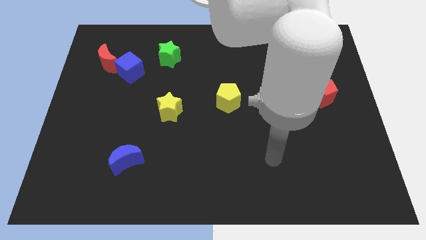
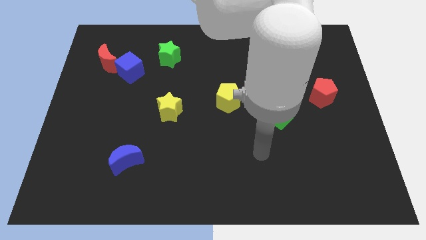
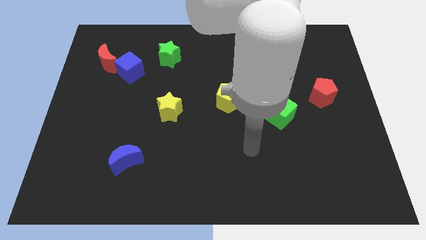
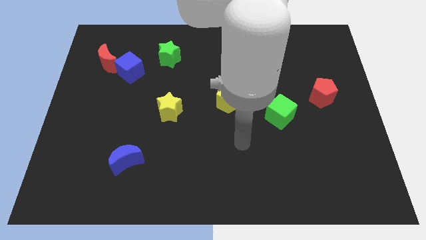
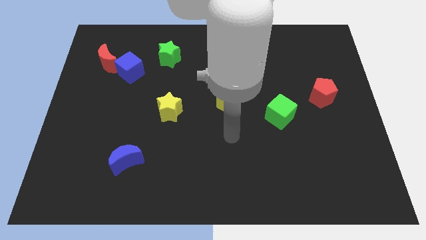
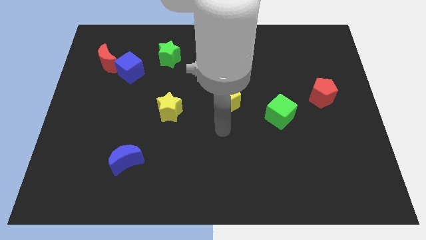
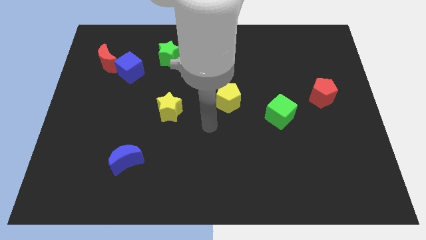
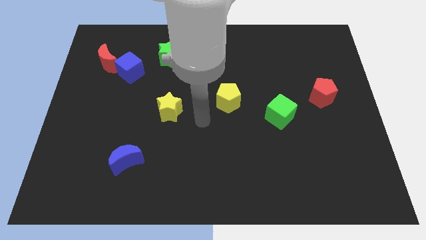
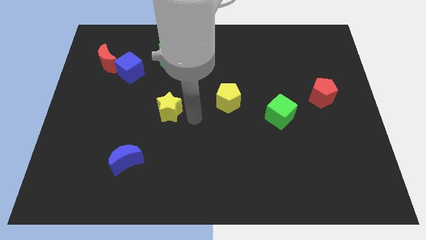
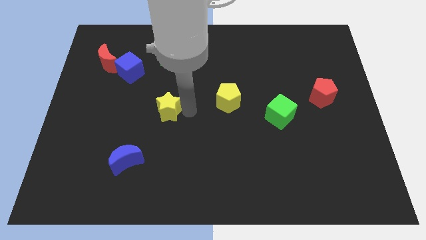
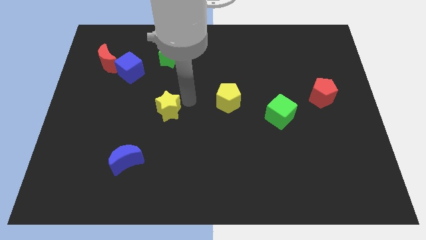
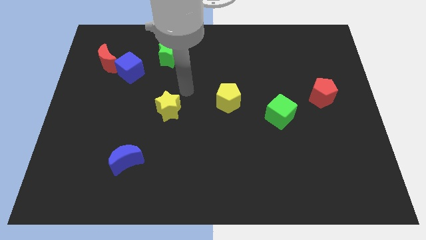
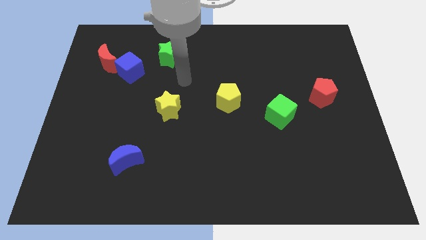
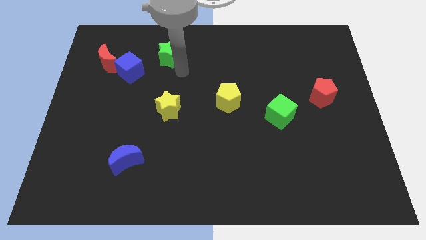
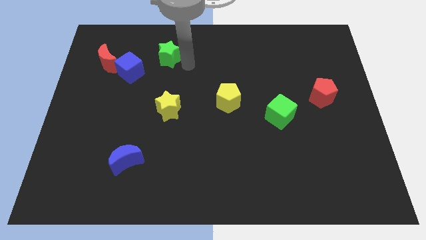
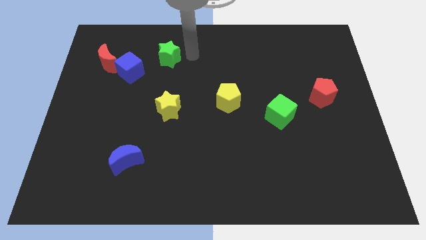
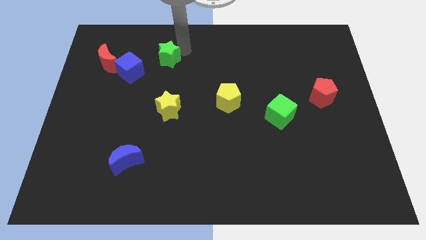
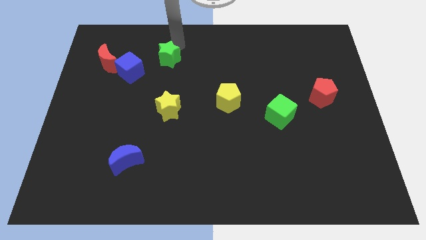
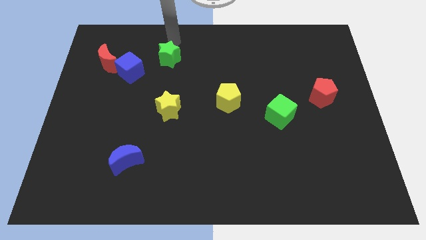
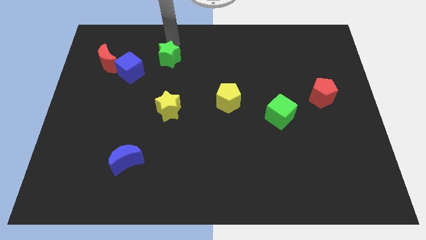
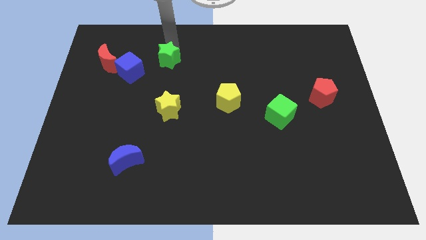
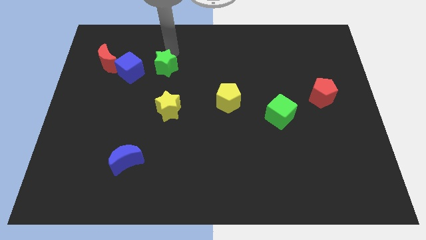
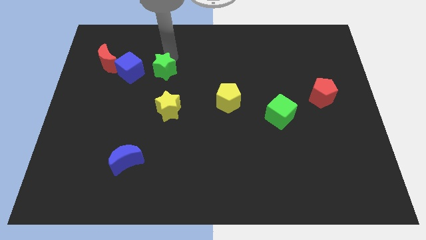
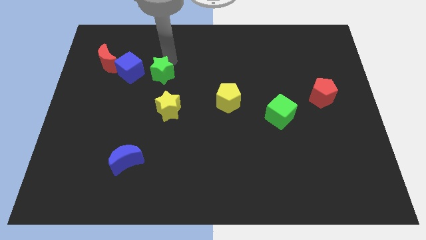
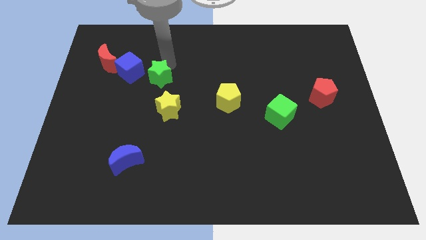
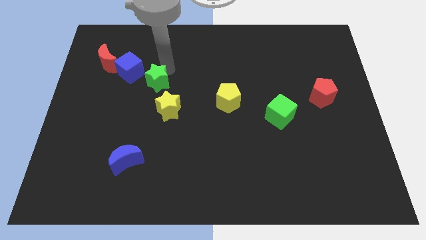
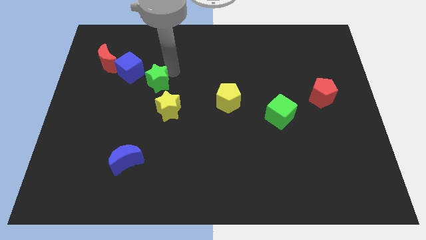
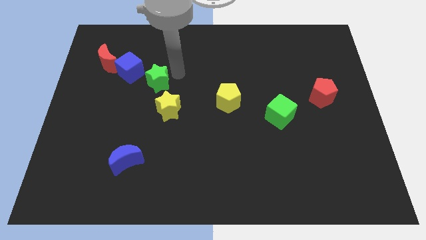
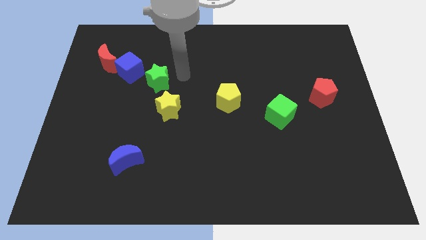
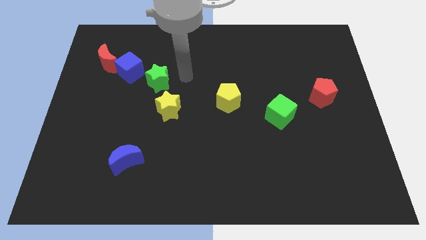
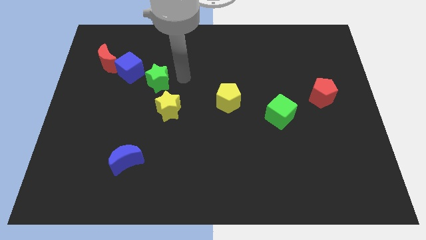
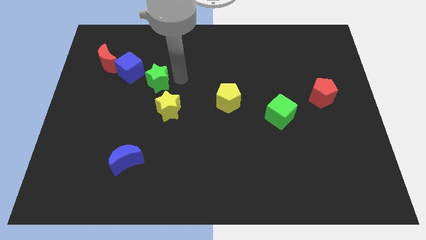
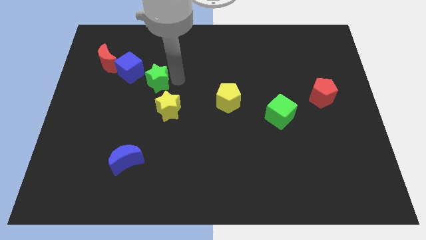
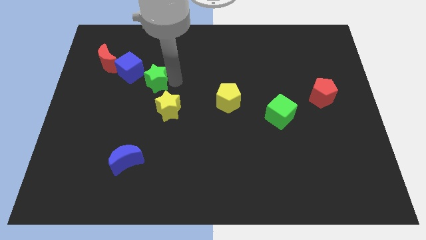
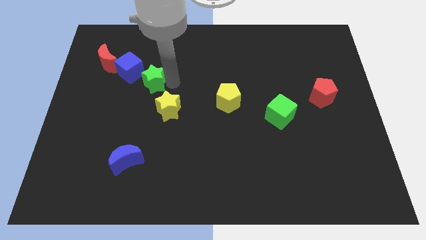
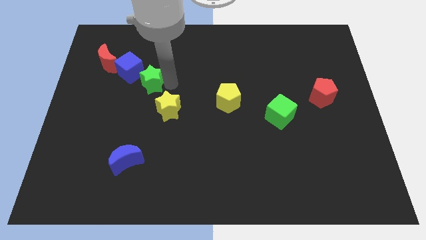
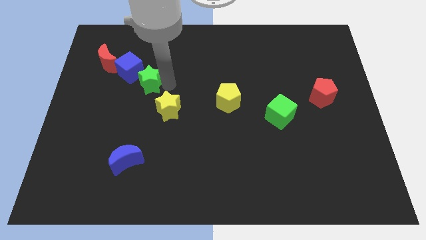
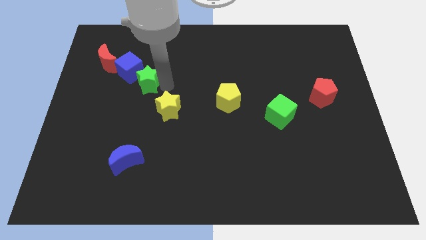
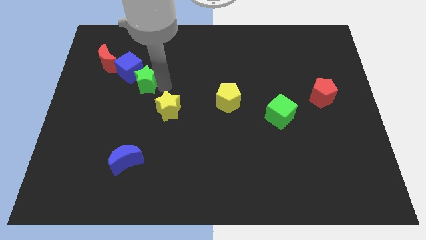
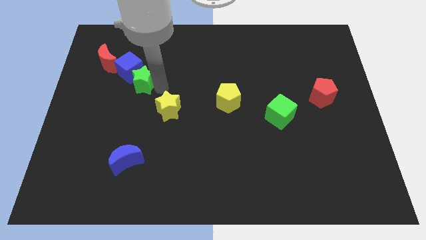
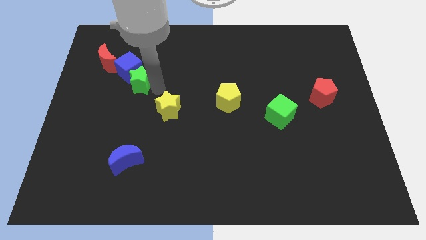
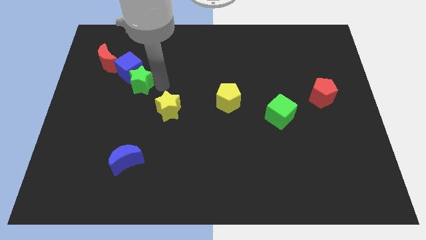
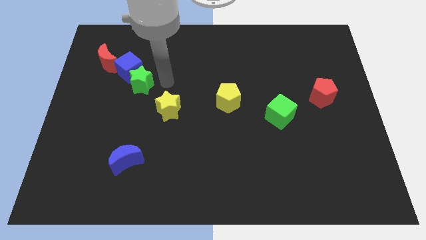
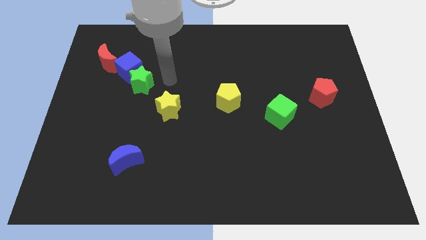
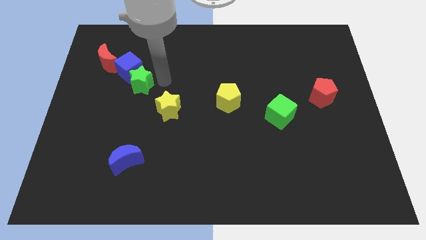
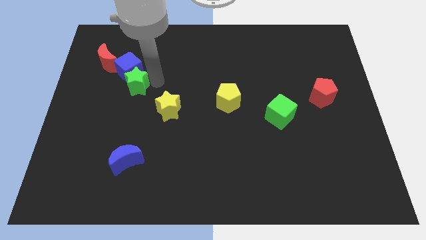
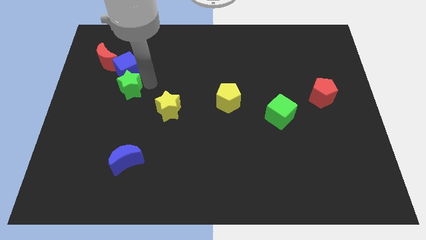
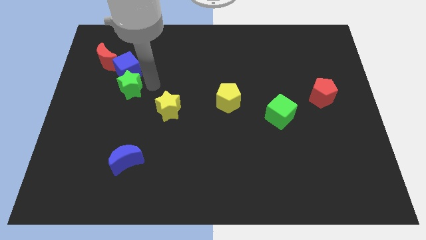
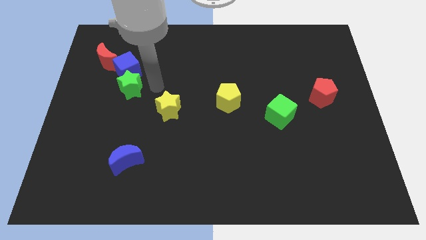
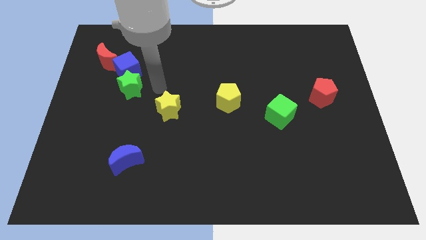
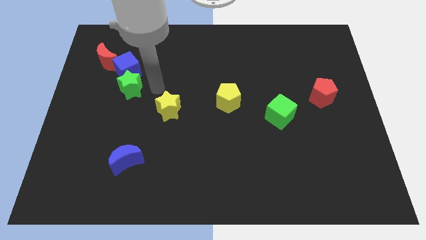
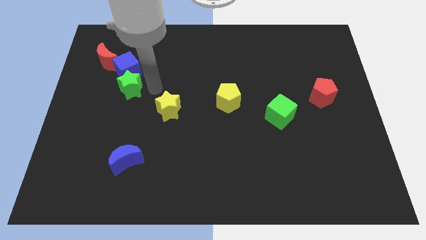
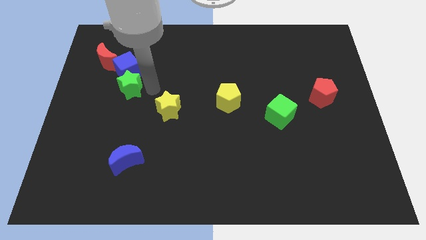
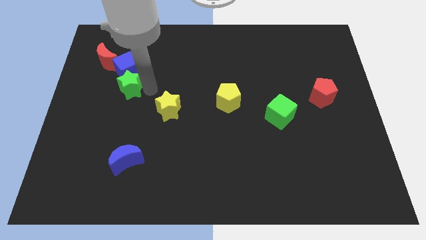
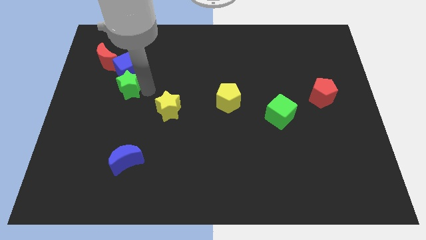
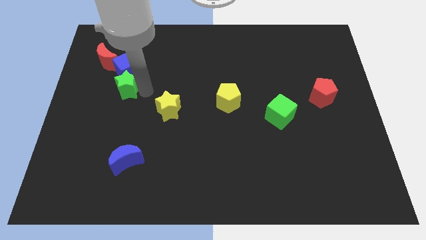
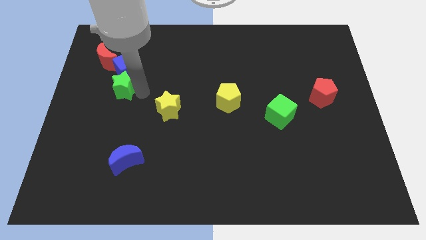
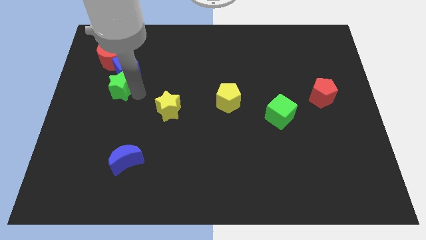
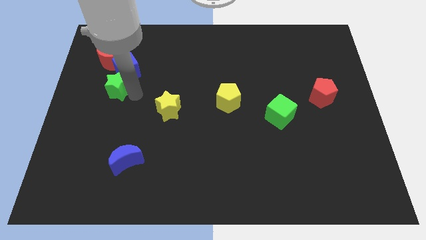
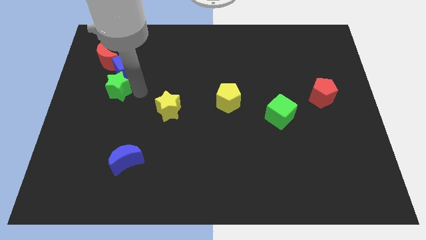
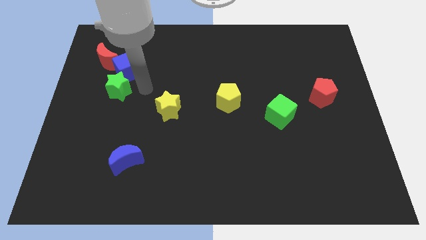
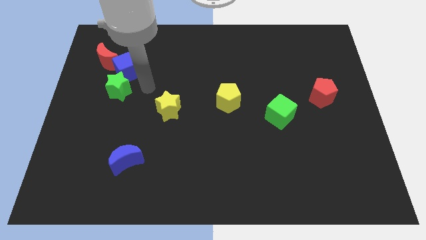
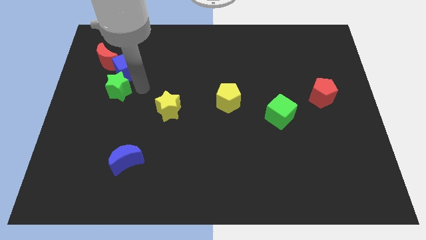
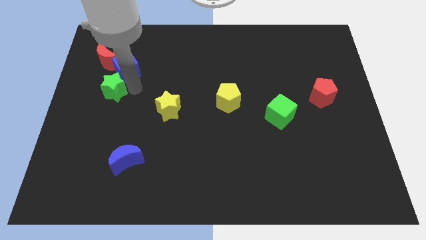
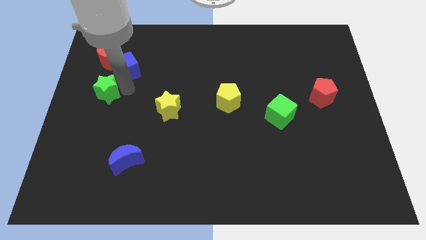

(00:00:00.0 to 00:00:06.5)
slide the green star to the left side

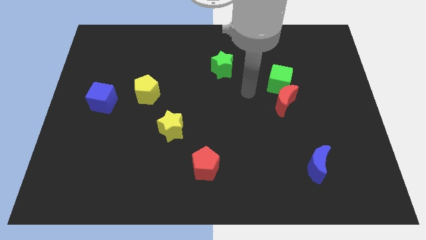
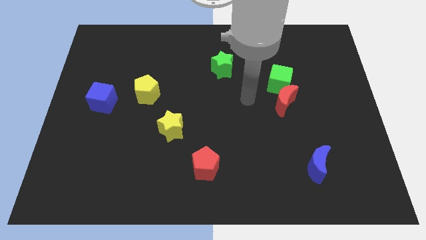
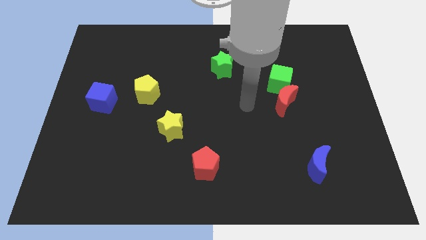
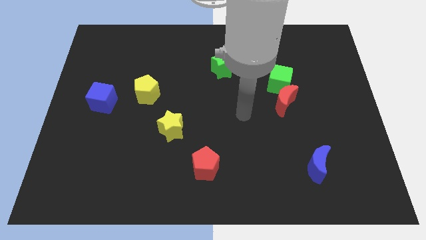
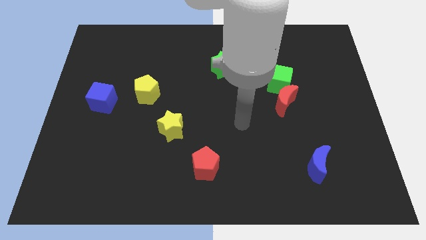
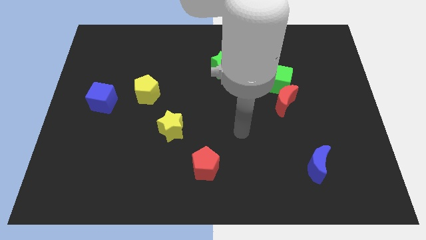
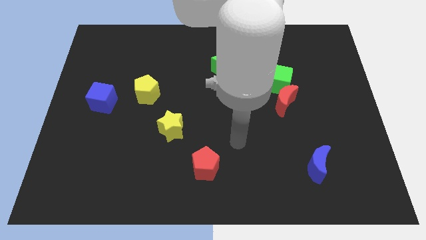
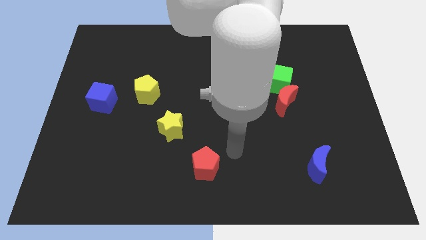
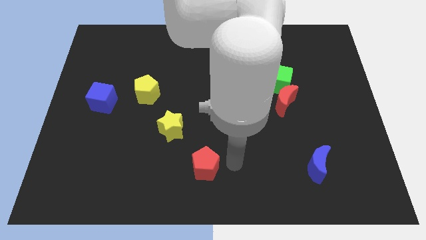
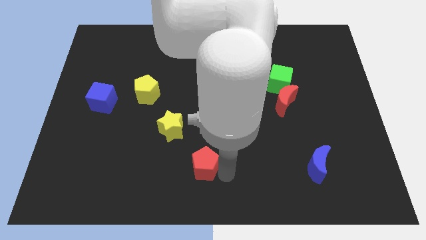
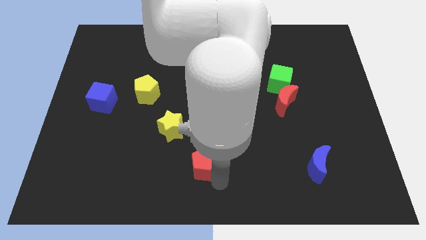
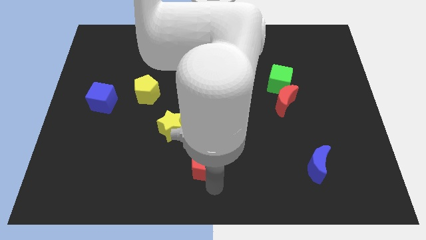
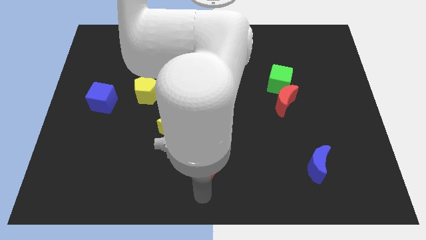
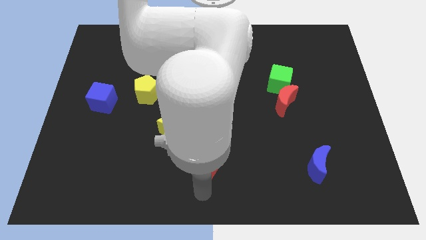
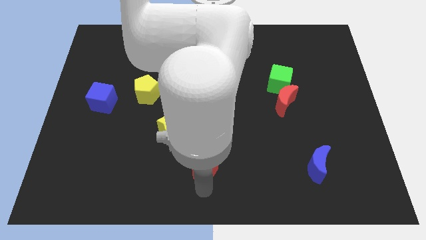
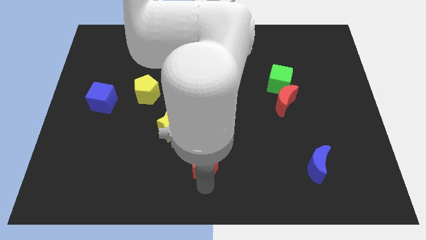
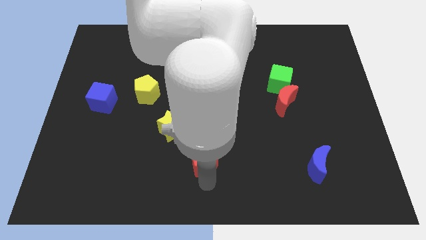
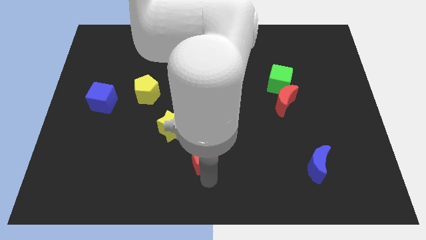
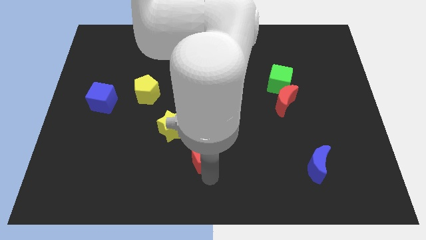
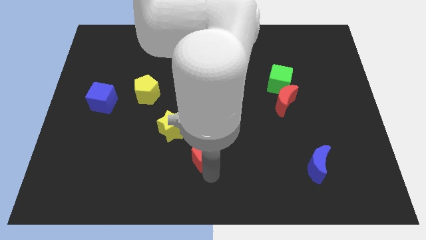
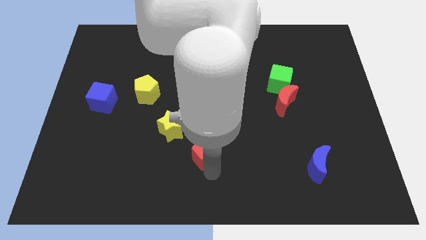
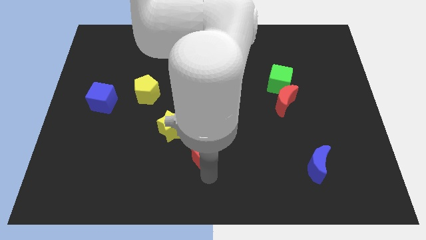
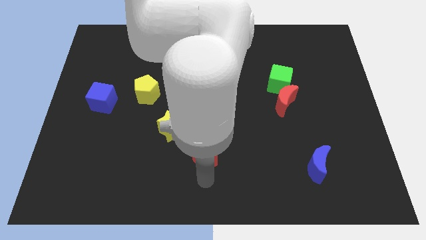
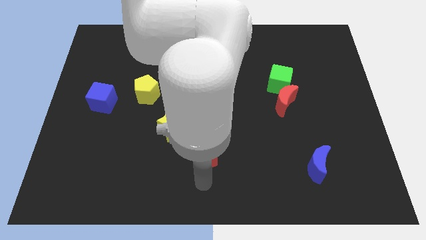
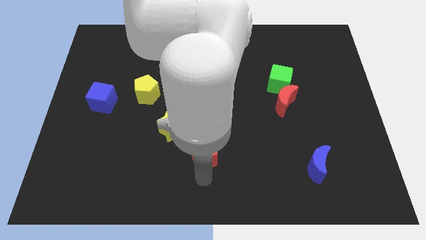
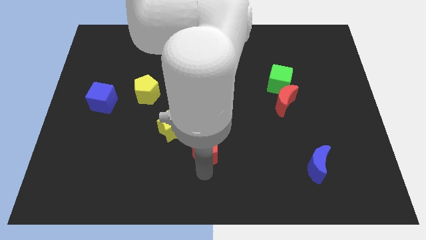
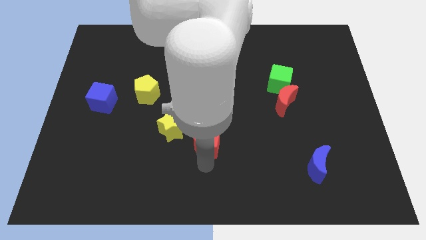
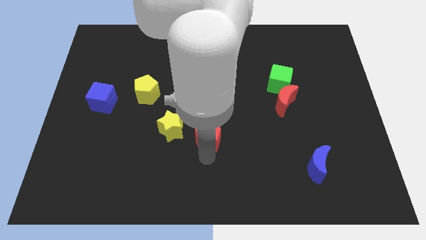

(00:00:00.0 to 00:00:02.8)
move the red pentagon to the center of the board
